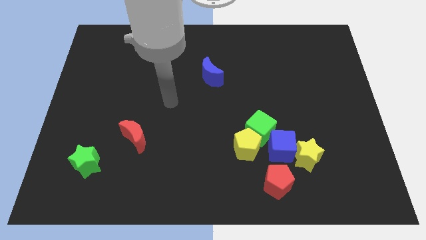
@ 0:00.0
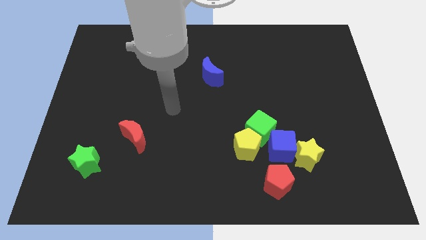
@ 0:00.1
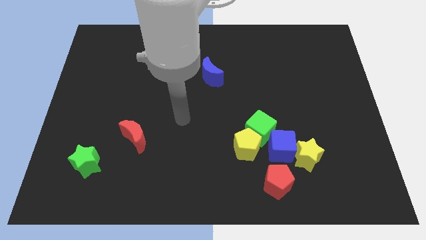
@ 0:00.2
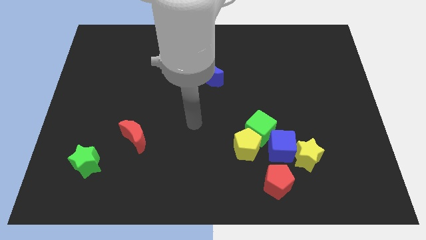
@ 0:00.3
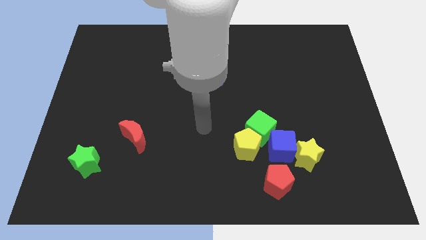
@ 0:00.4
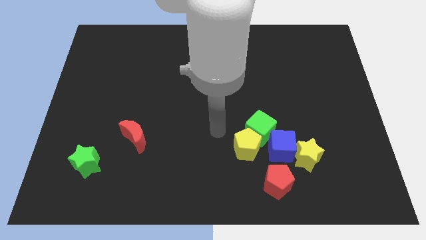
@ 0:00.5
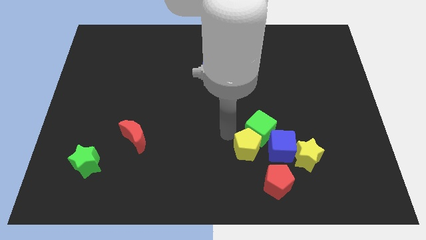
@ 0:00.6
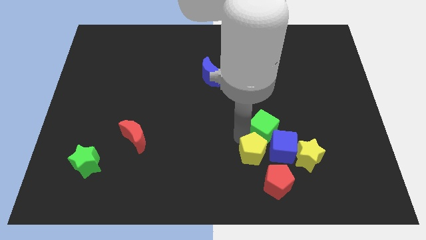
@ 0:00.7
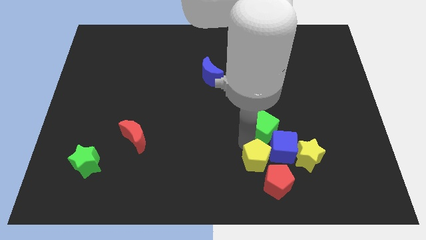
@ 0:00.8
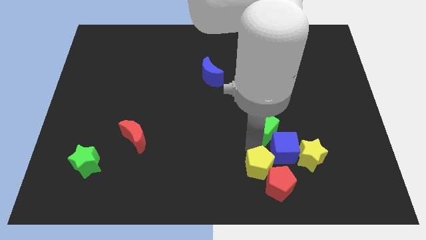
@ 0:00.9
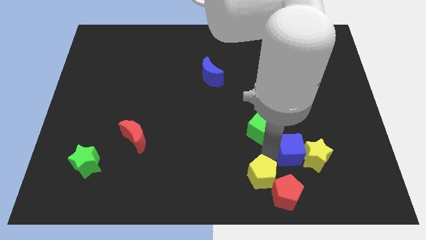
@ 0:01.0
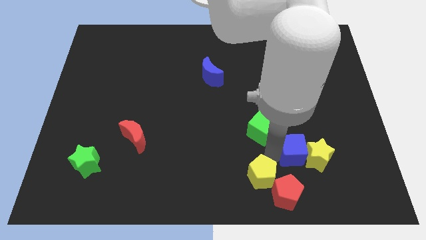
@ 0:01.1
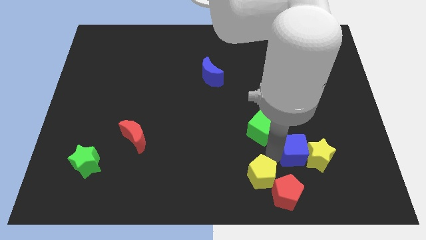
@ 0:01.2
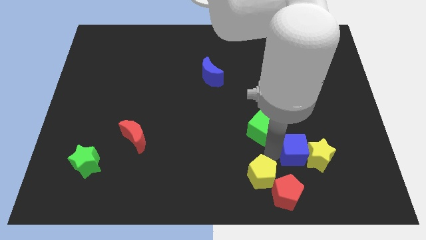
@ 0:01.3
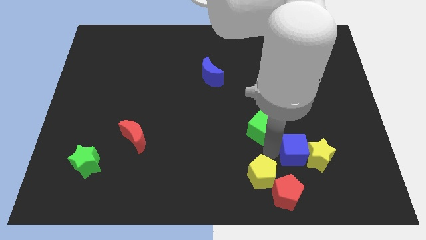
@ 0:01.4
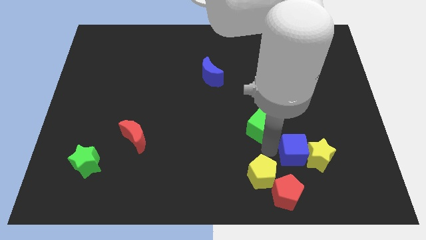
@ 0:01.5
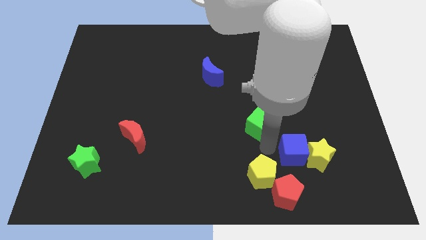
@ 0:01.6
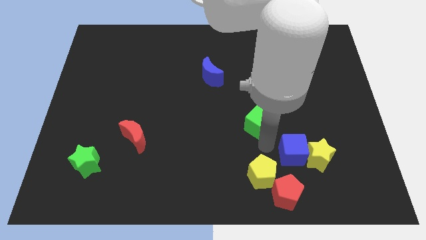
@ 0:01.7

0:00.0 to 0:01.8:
pull the green cube apart from the yellow pentagon and blue cube

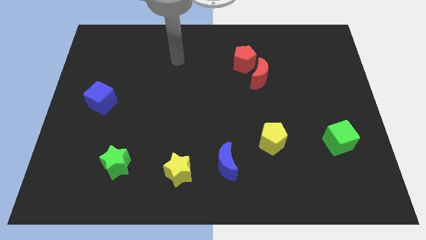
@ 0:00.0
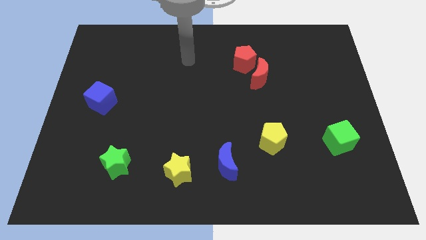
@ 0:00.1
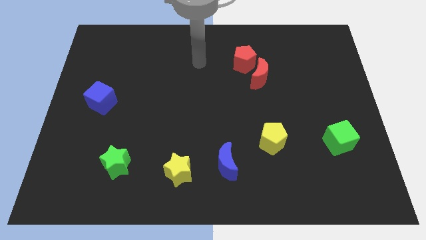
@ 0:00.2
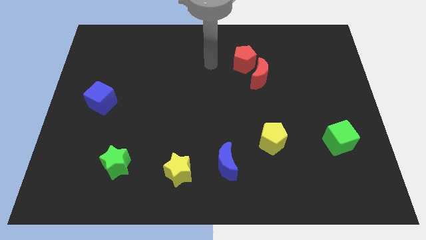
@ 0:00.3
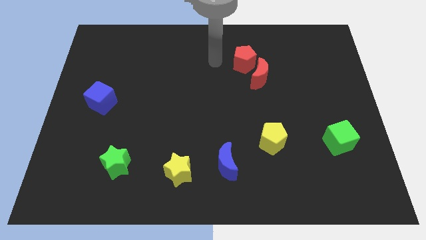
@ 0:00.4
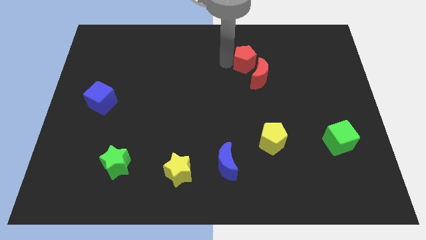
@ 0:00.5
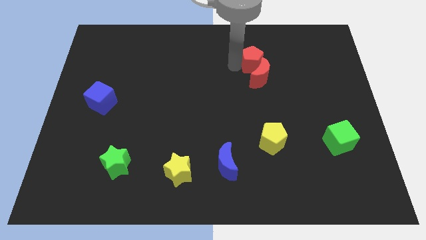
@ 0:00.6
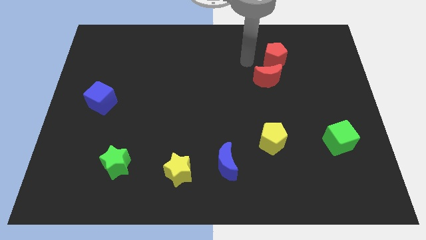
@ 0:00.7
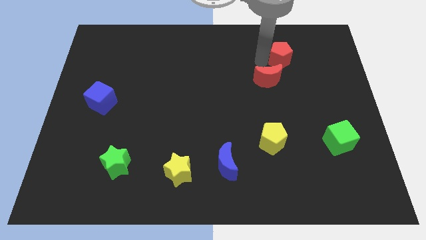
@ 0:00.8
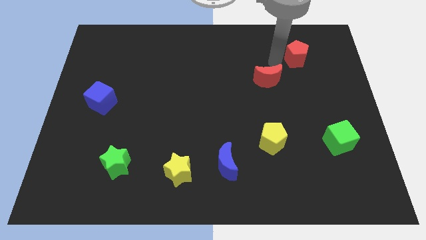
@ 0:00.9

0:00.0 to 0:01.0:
move the red moon away from the red pentagon

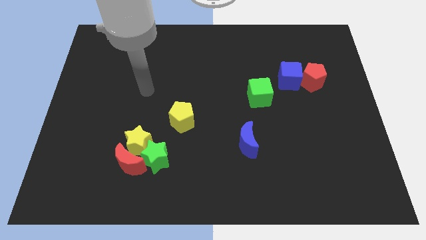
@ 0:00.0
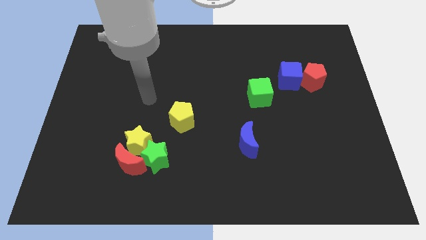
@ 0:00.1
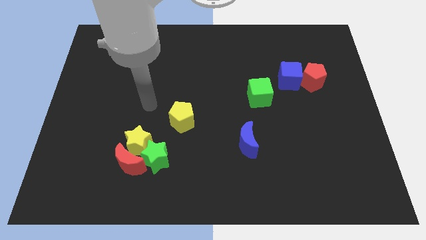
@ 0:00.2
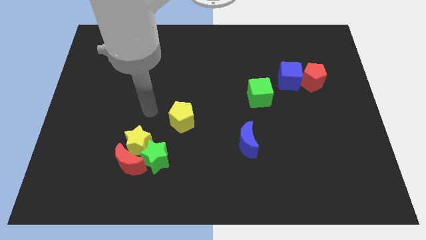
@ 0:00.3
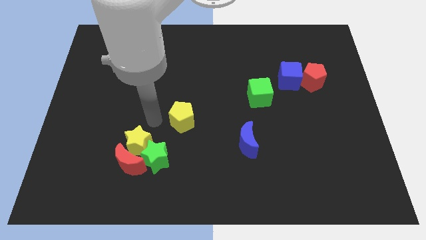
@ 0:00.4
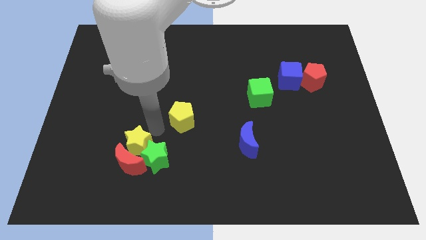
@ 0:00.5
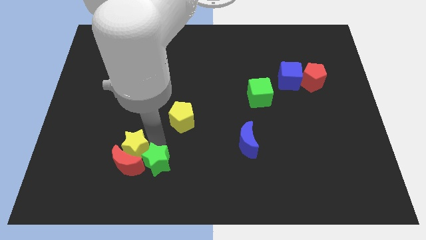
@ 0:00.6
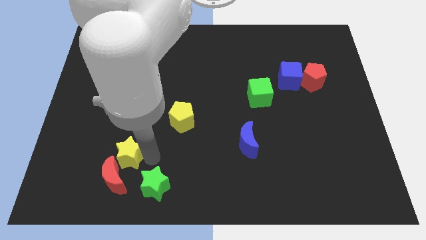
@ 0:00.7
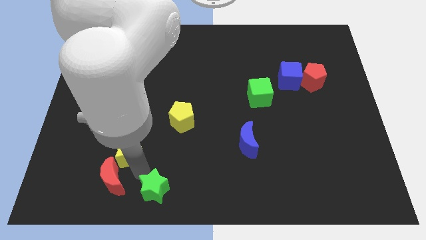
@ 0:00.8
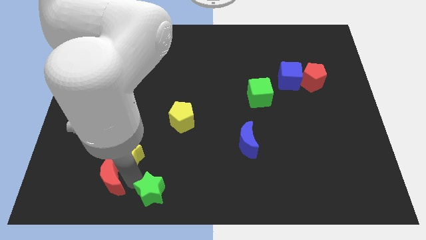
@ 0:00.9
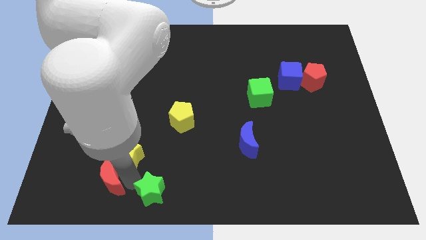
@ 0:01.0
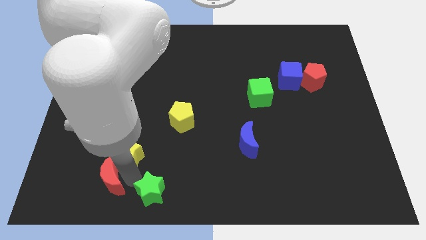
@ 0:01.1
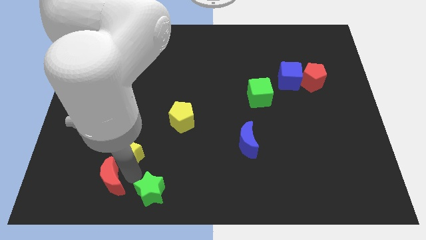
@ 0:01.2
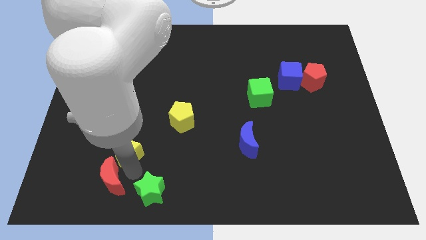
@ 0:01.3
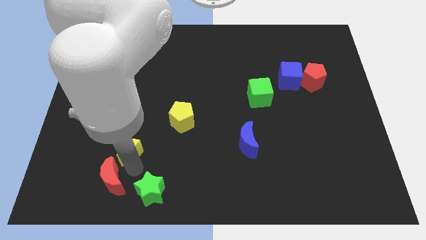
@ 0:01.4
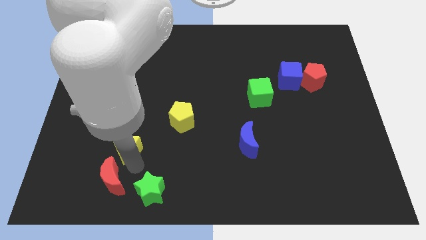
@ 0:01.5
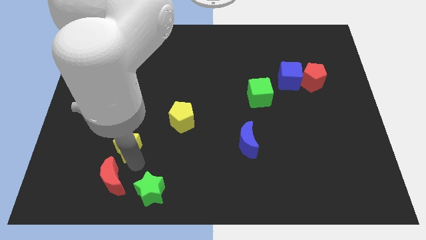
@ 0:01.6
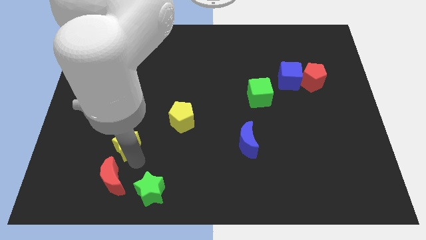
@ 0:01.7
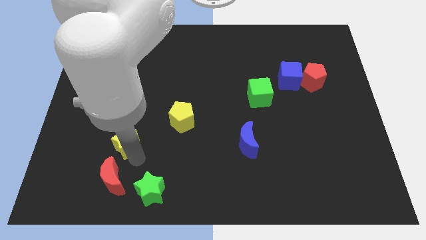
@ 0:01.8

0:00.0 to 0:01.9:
separate the yellow star from the red moon and green star

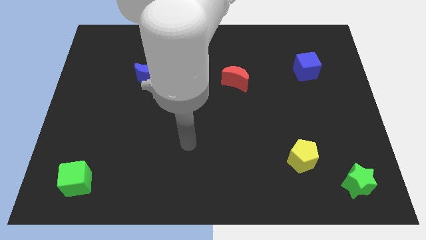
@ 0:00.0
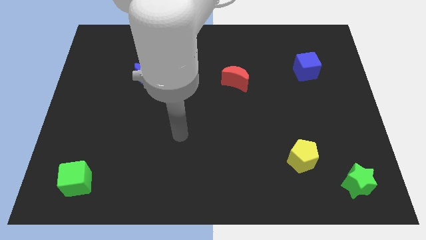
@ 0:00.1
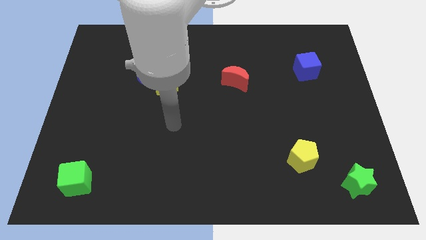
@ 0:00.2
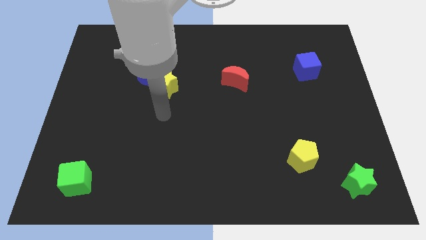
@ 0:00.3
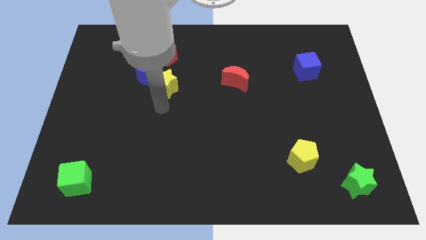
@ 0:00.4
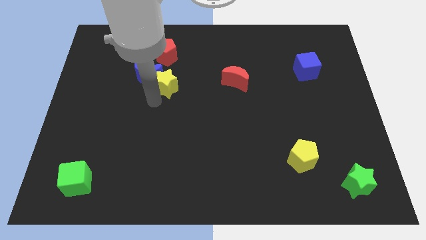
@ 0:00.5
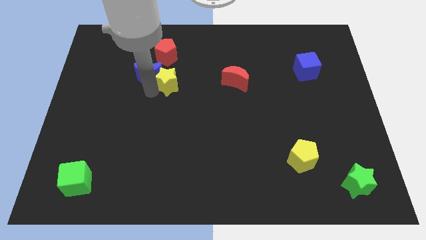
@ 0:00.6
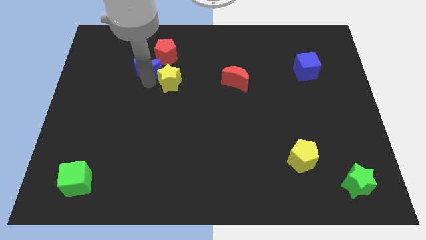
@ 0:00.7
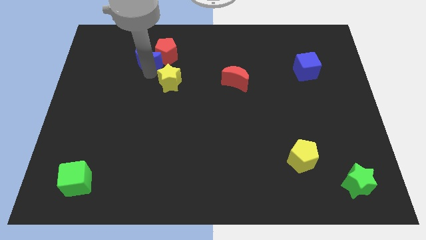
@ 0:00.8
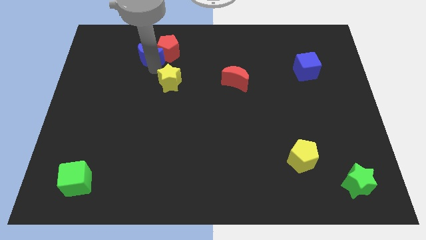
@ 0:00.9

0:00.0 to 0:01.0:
pull the yellow star apart from the blue moon

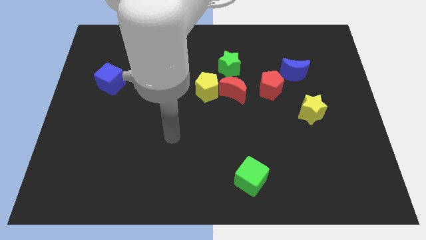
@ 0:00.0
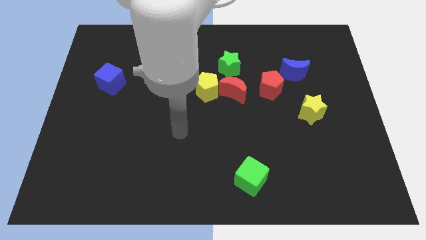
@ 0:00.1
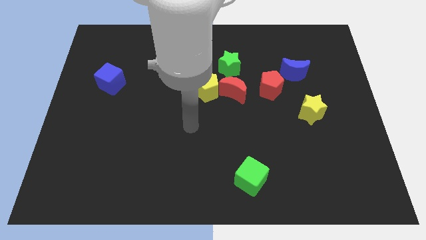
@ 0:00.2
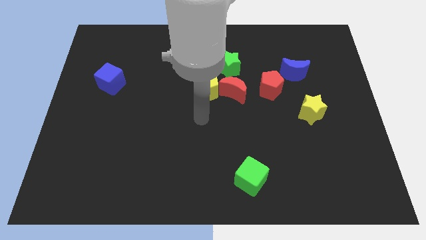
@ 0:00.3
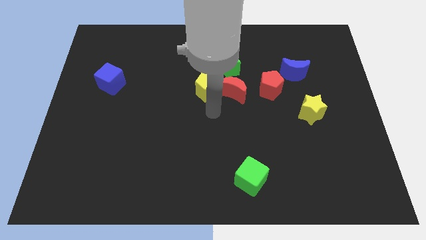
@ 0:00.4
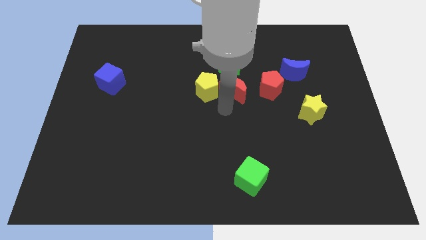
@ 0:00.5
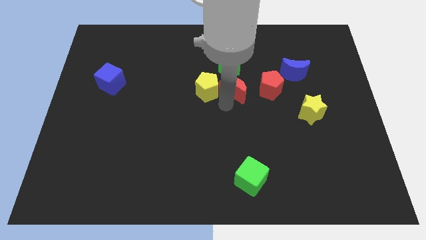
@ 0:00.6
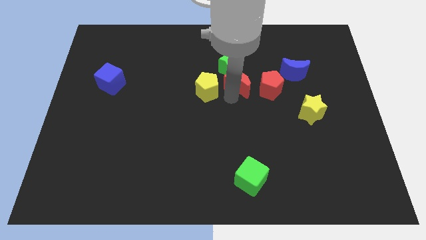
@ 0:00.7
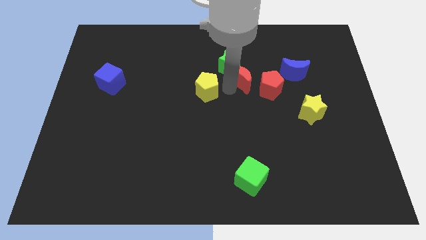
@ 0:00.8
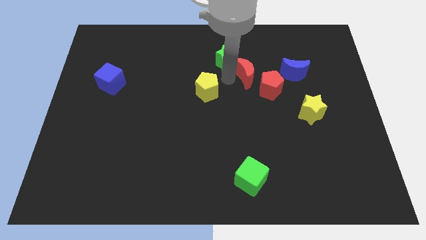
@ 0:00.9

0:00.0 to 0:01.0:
separate the yellow pentagon from the red moon and green star

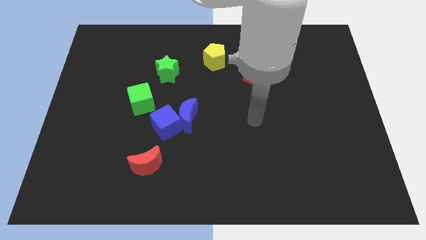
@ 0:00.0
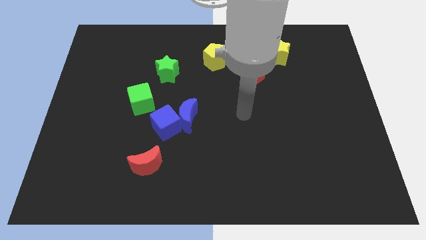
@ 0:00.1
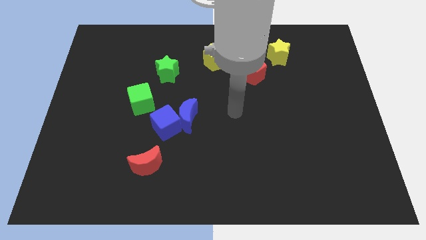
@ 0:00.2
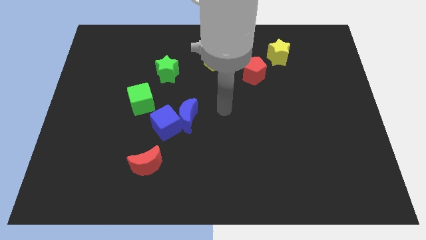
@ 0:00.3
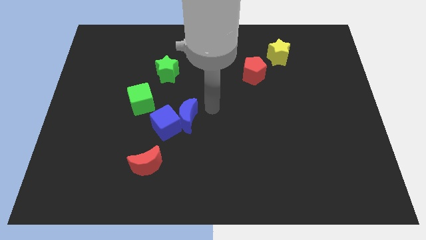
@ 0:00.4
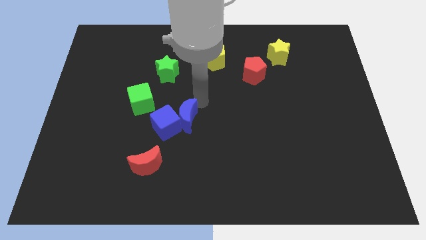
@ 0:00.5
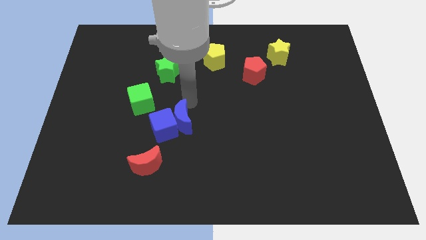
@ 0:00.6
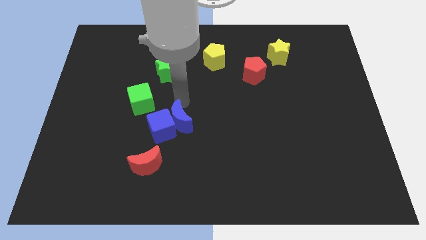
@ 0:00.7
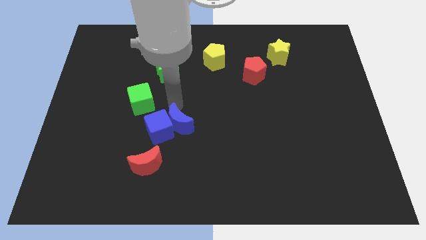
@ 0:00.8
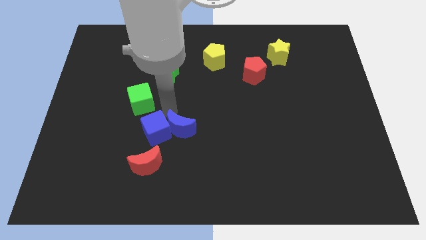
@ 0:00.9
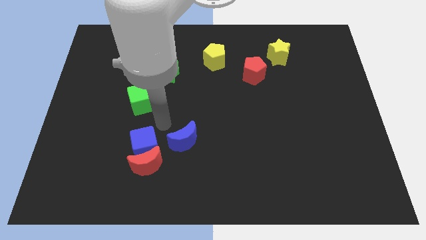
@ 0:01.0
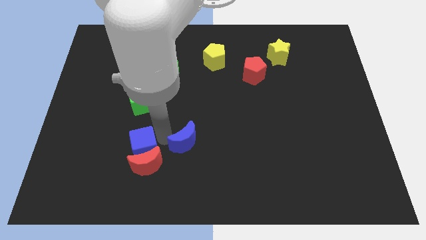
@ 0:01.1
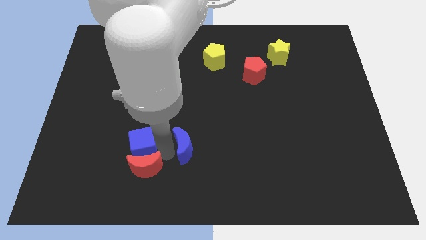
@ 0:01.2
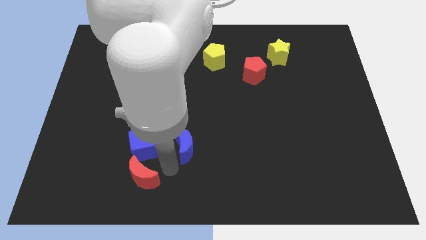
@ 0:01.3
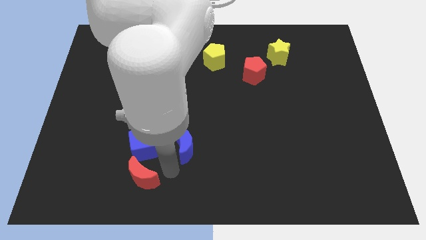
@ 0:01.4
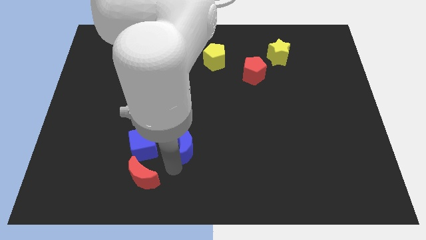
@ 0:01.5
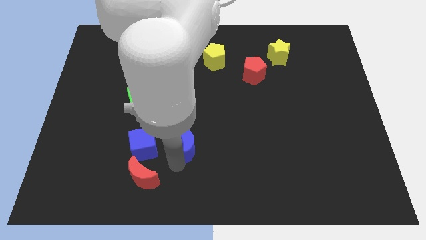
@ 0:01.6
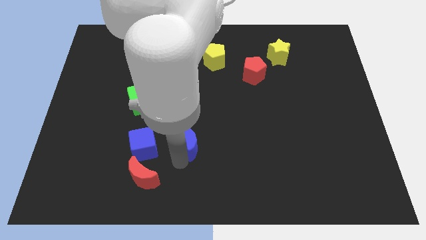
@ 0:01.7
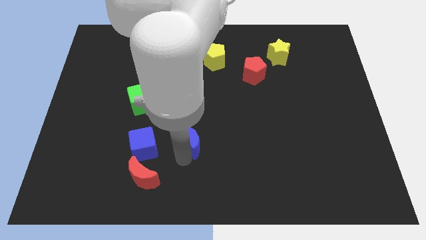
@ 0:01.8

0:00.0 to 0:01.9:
pull the blue moon apart from the blue cube

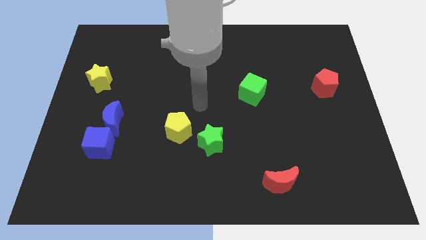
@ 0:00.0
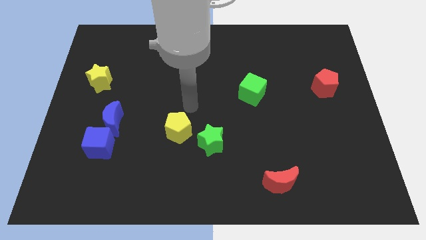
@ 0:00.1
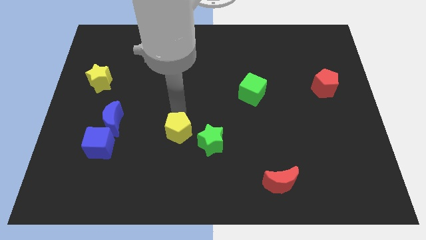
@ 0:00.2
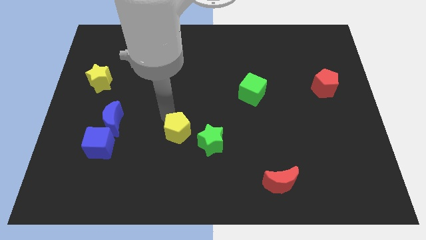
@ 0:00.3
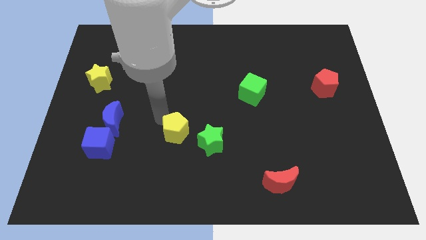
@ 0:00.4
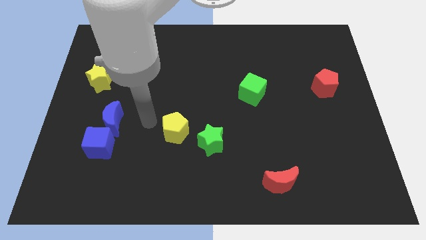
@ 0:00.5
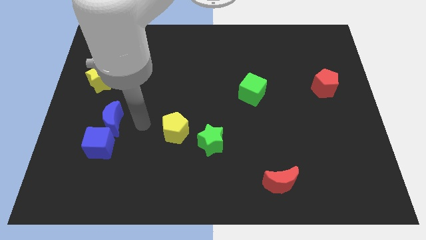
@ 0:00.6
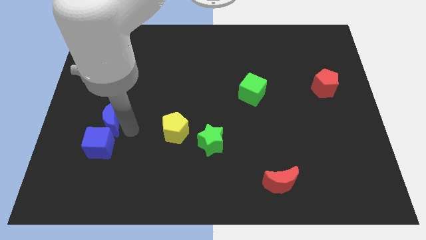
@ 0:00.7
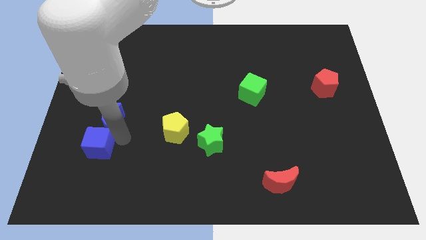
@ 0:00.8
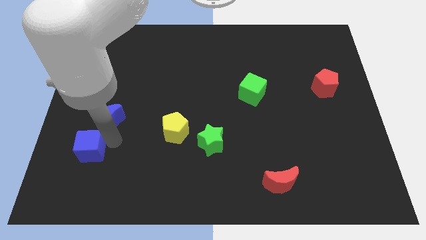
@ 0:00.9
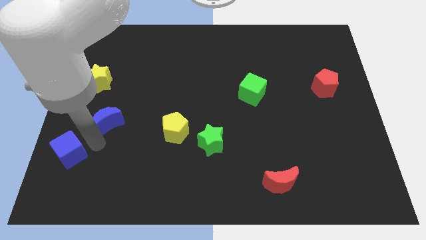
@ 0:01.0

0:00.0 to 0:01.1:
separate the blue moon from the blue cube
